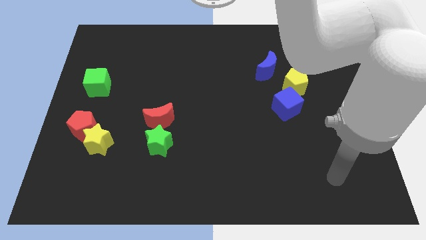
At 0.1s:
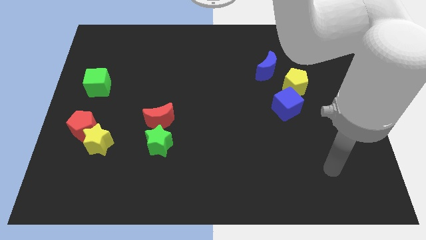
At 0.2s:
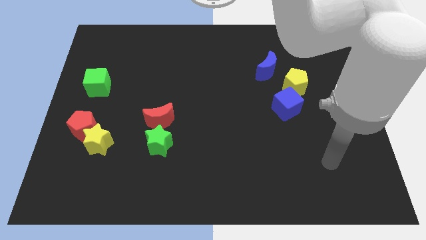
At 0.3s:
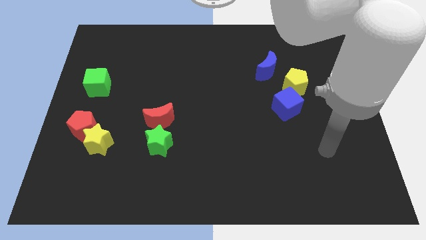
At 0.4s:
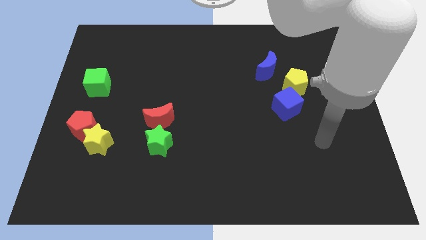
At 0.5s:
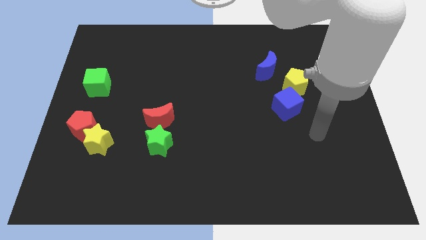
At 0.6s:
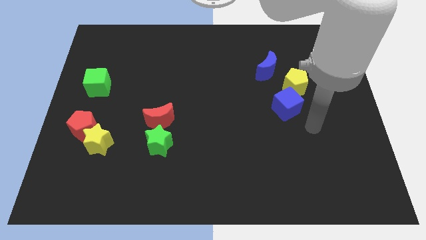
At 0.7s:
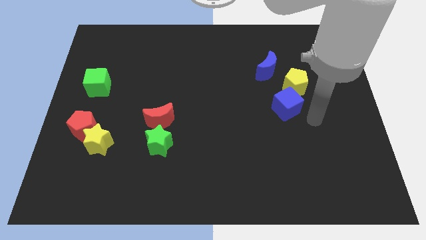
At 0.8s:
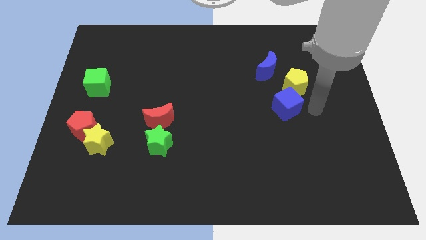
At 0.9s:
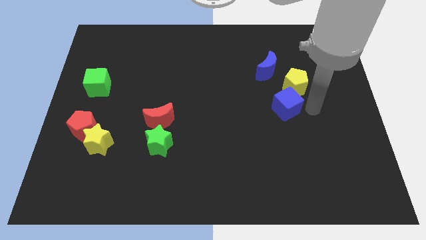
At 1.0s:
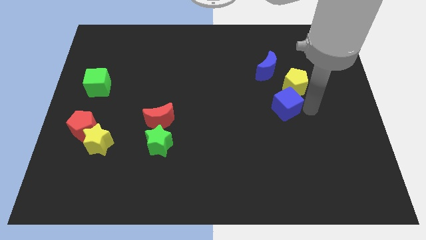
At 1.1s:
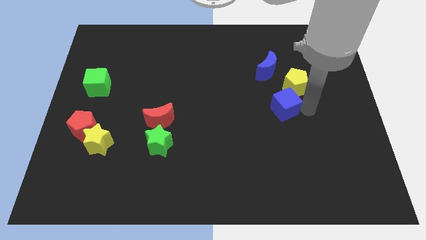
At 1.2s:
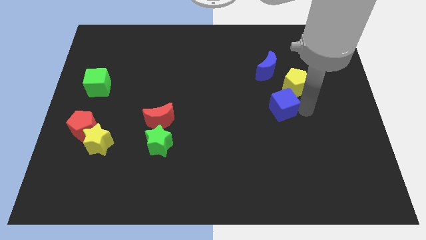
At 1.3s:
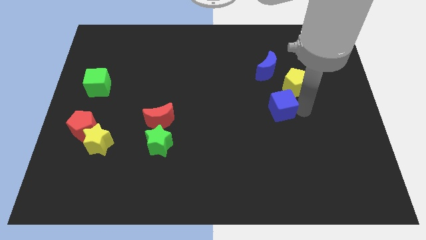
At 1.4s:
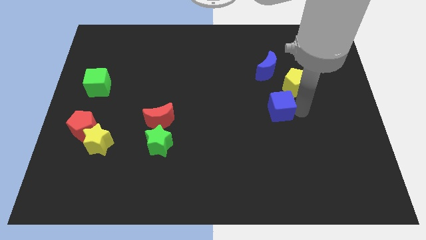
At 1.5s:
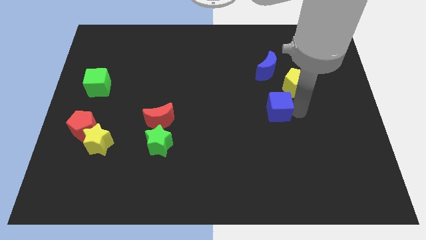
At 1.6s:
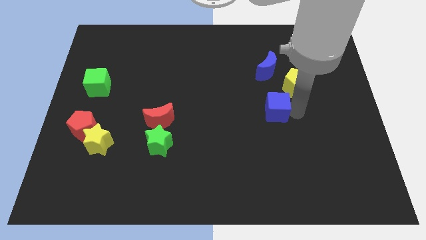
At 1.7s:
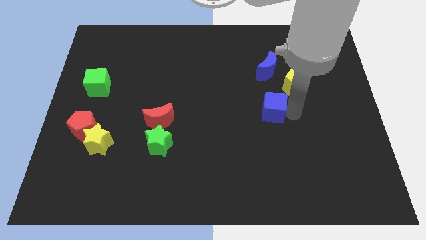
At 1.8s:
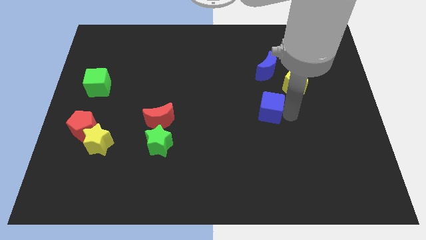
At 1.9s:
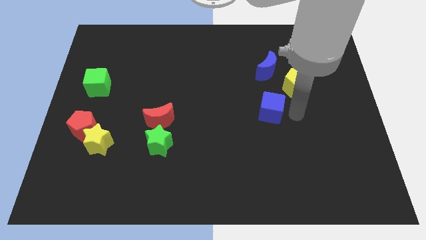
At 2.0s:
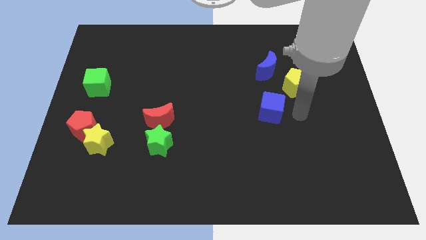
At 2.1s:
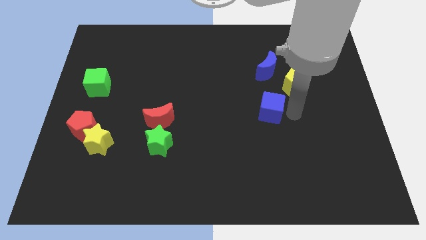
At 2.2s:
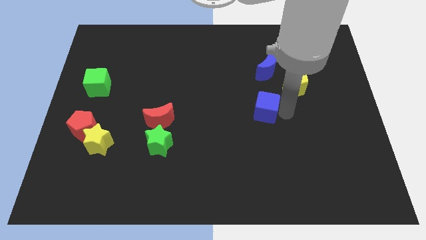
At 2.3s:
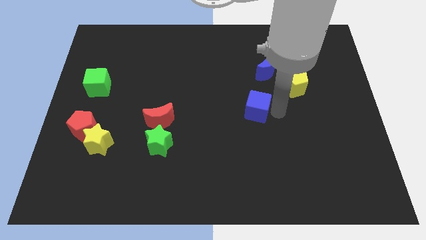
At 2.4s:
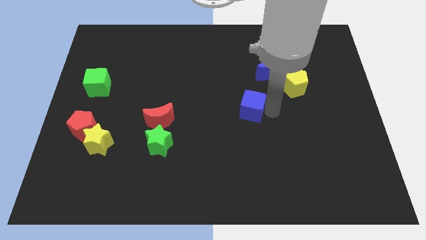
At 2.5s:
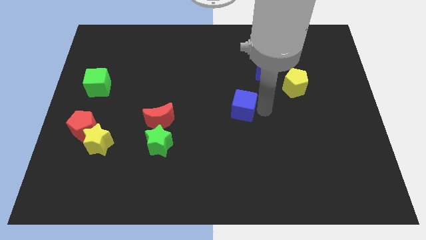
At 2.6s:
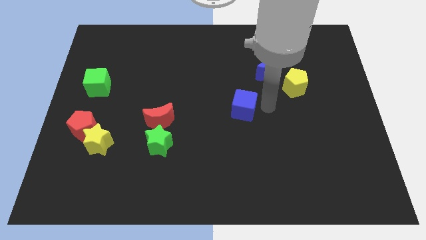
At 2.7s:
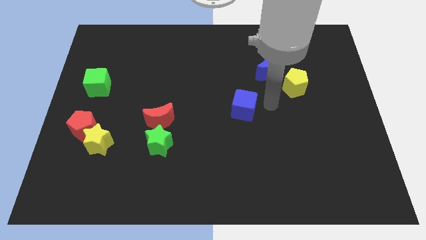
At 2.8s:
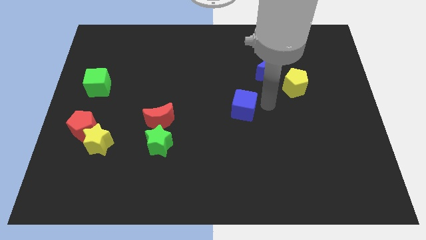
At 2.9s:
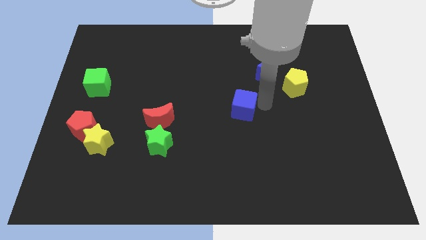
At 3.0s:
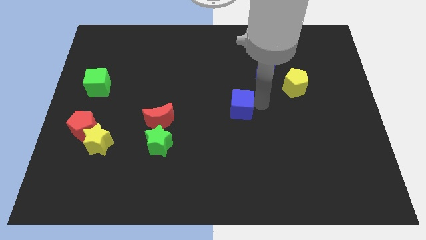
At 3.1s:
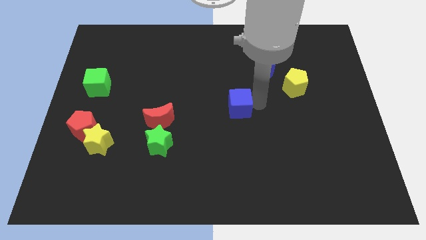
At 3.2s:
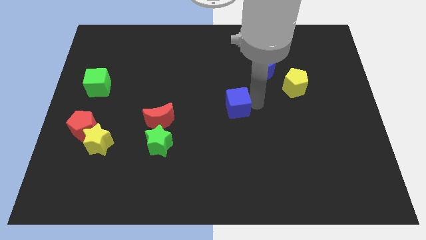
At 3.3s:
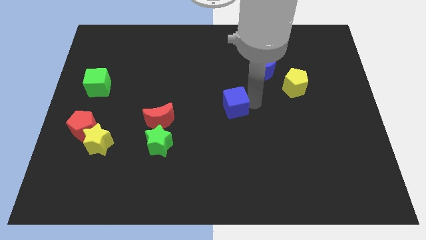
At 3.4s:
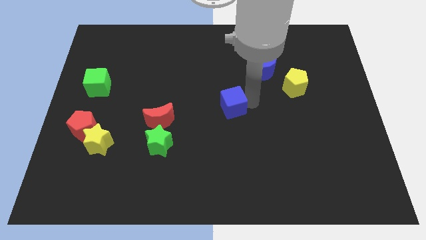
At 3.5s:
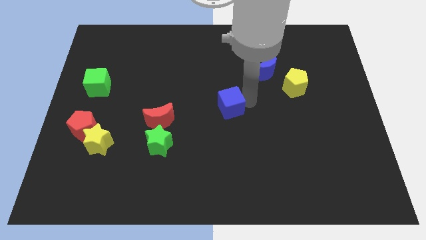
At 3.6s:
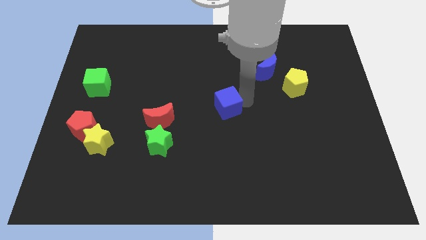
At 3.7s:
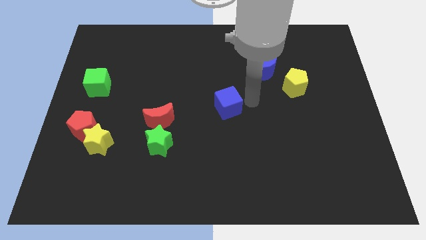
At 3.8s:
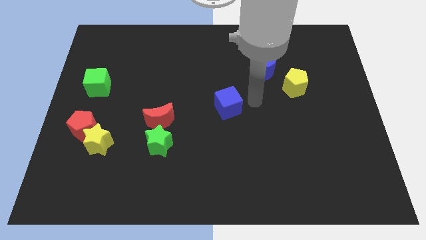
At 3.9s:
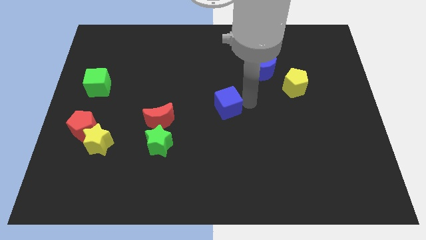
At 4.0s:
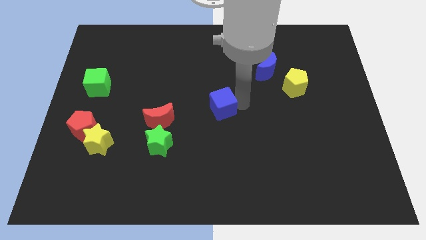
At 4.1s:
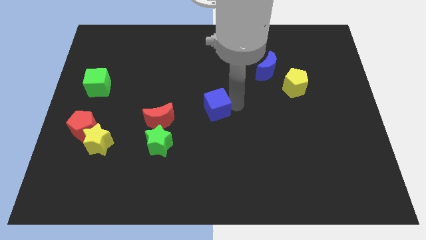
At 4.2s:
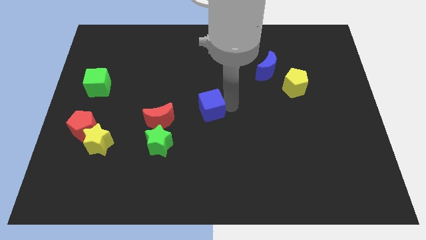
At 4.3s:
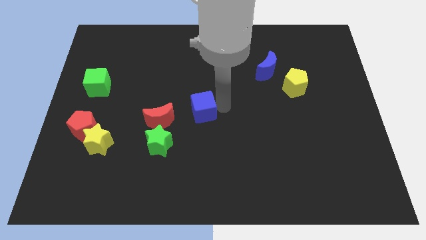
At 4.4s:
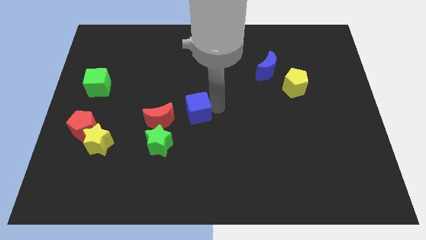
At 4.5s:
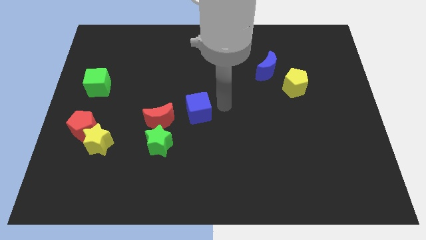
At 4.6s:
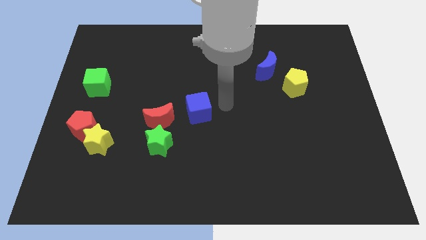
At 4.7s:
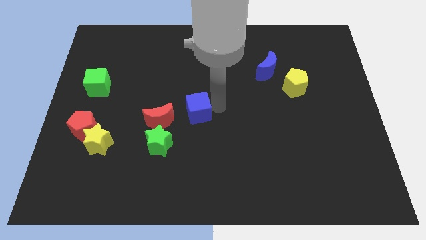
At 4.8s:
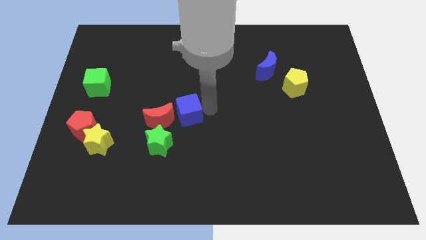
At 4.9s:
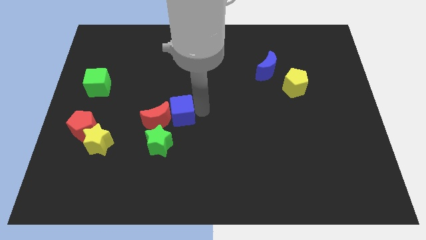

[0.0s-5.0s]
push the blue cube towards the red moon

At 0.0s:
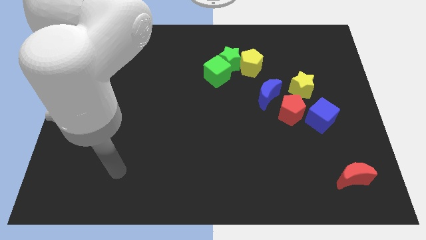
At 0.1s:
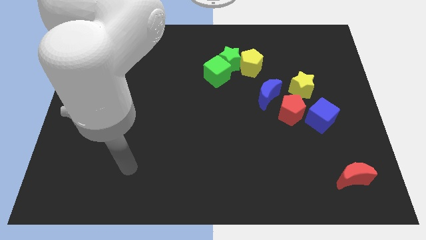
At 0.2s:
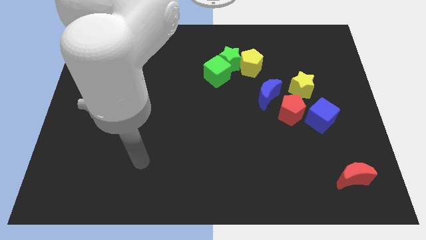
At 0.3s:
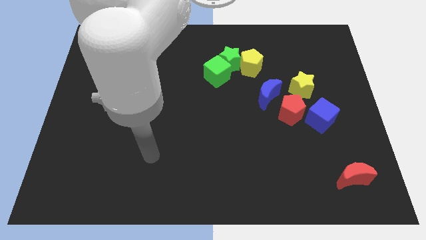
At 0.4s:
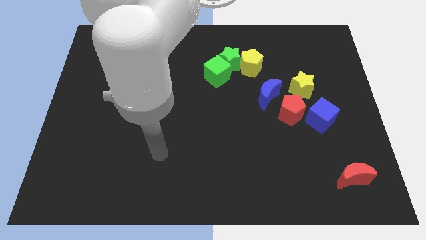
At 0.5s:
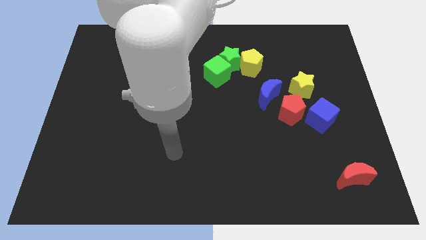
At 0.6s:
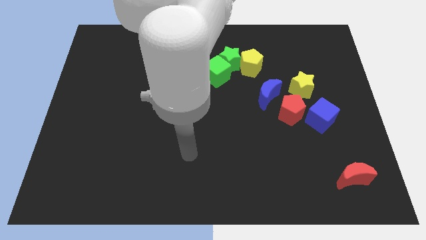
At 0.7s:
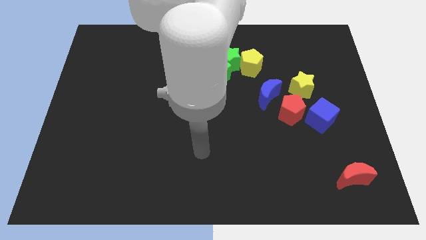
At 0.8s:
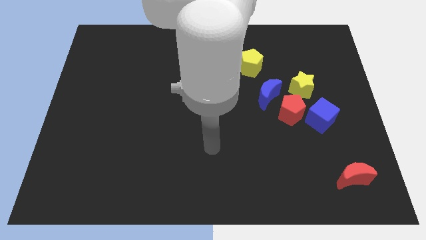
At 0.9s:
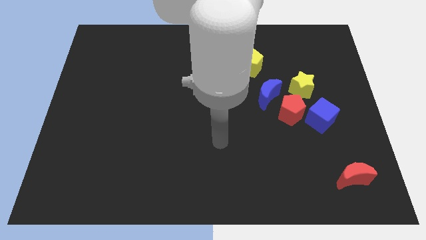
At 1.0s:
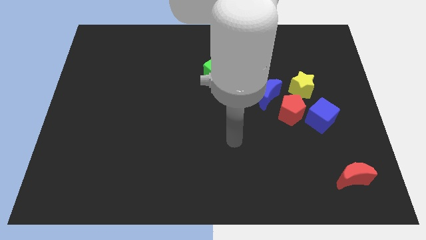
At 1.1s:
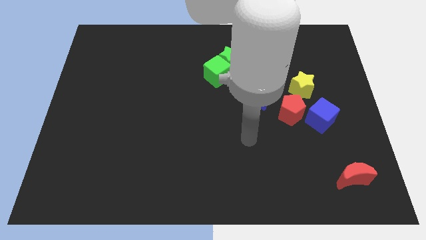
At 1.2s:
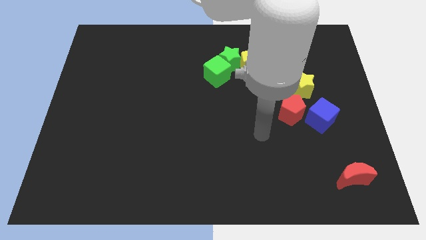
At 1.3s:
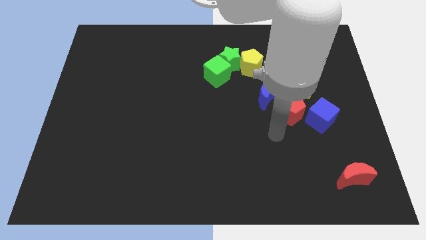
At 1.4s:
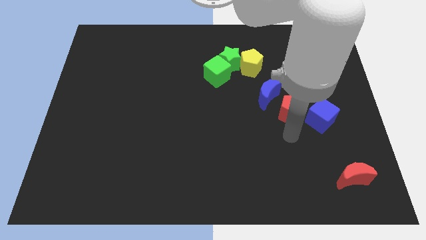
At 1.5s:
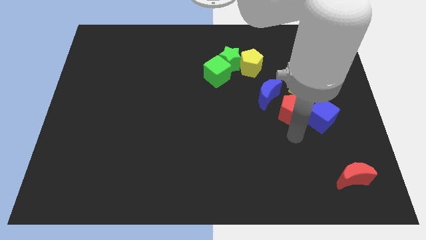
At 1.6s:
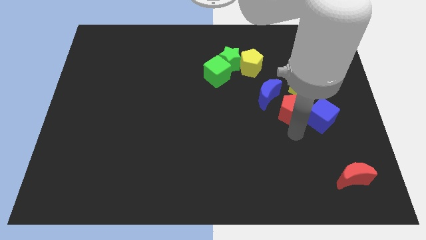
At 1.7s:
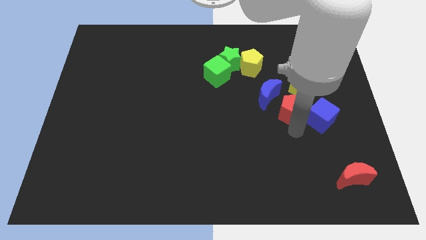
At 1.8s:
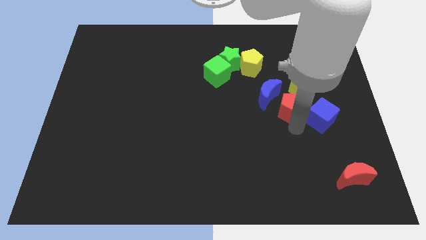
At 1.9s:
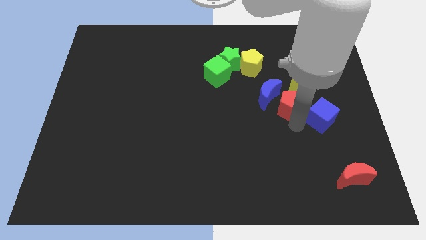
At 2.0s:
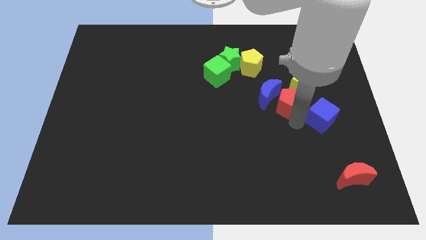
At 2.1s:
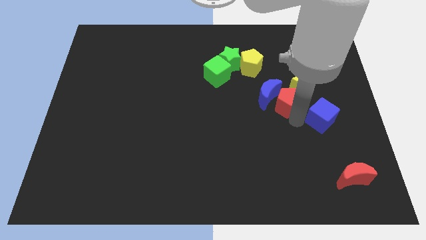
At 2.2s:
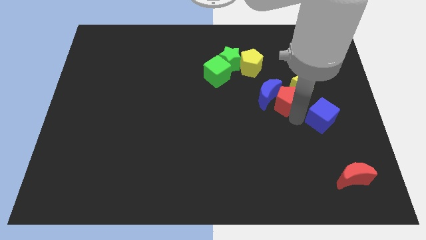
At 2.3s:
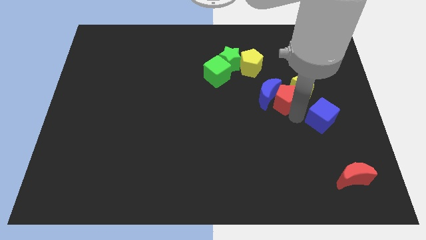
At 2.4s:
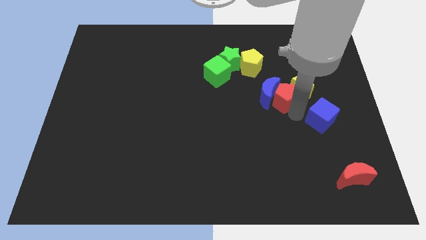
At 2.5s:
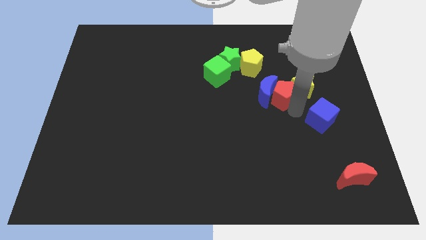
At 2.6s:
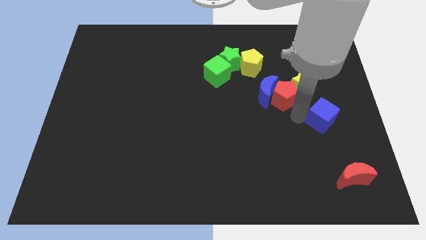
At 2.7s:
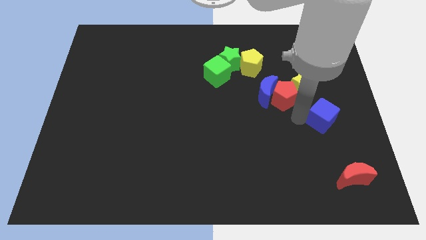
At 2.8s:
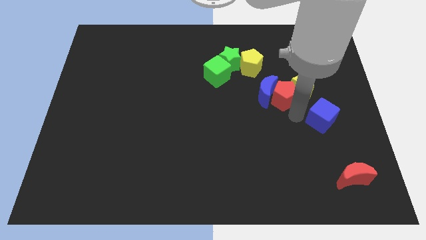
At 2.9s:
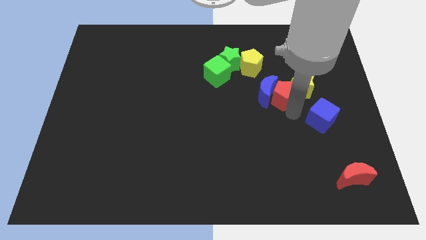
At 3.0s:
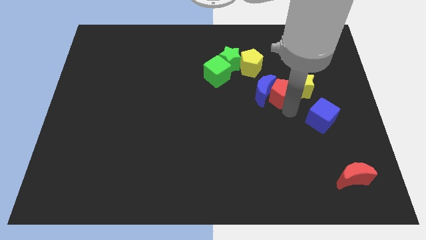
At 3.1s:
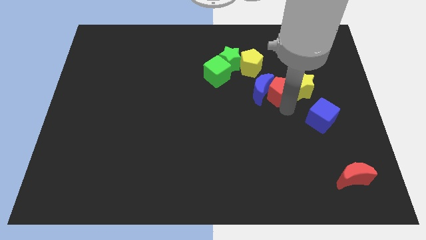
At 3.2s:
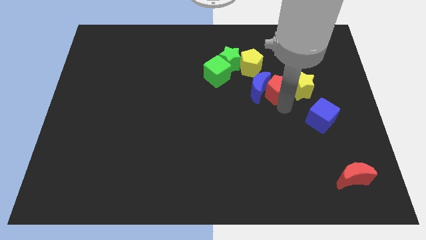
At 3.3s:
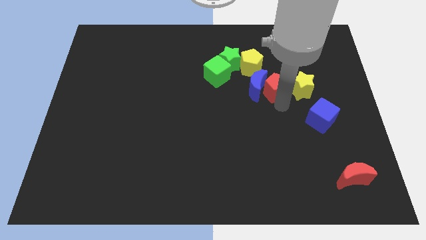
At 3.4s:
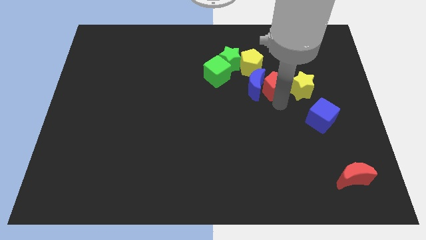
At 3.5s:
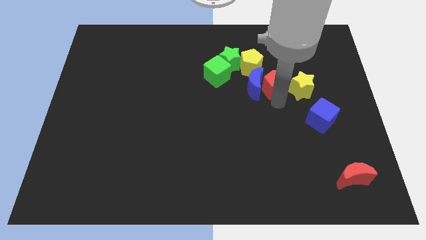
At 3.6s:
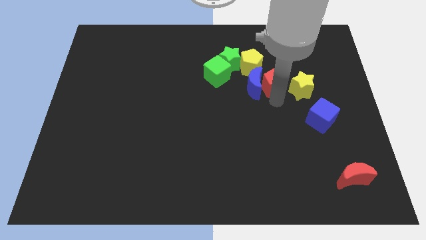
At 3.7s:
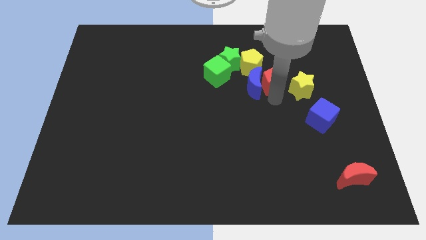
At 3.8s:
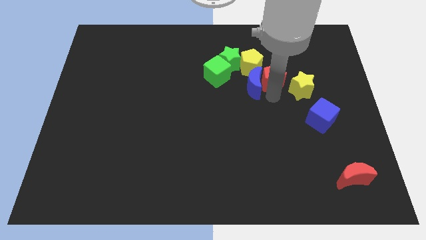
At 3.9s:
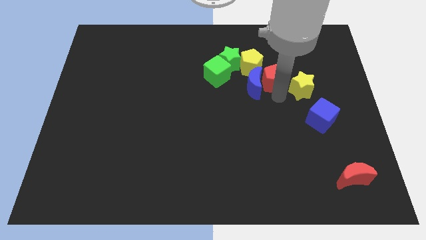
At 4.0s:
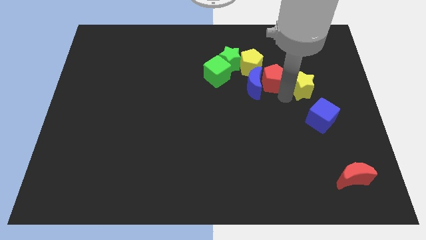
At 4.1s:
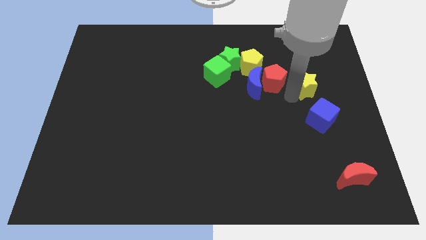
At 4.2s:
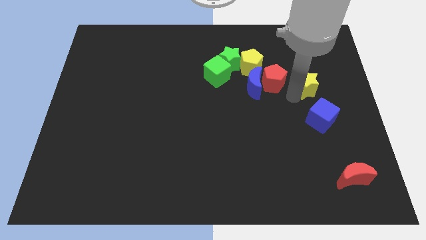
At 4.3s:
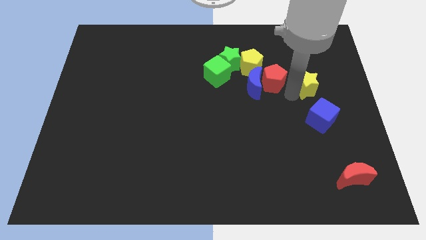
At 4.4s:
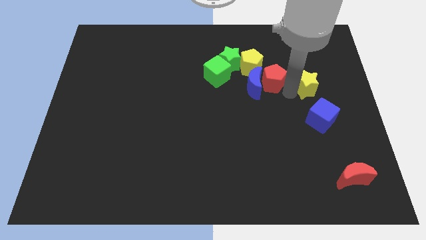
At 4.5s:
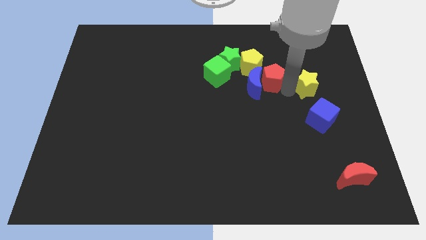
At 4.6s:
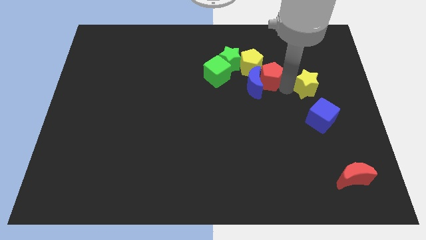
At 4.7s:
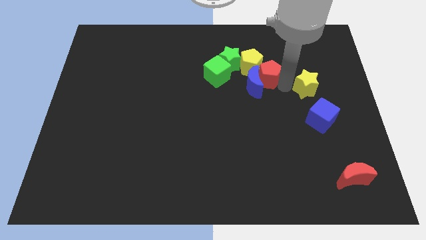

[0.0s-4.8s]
push the red pentagon next to the yellow pentagon
